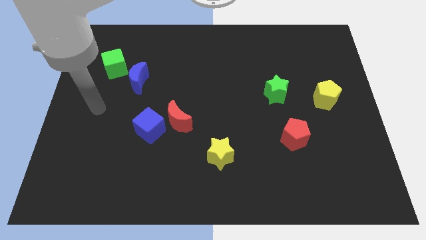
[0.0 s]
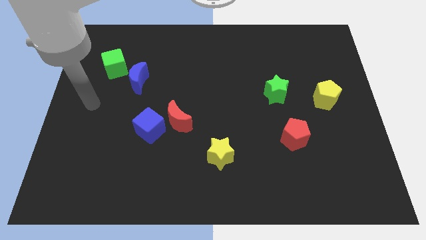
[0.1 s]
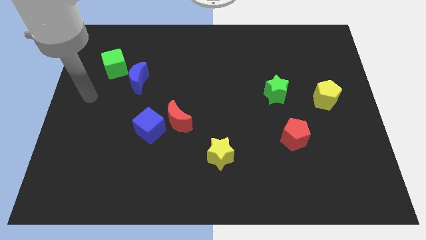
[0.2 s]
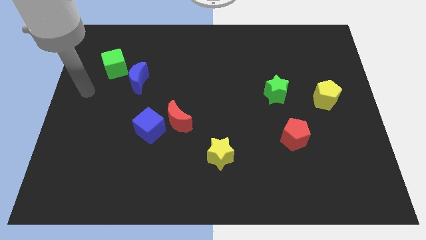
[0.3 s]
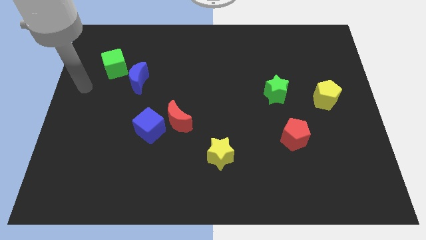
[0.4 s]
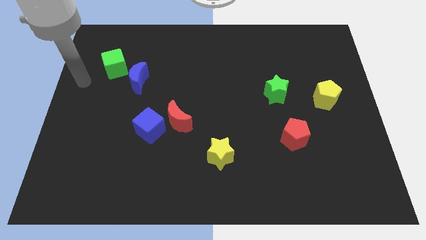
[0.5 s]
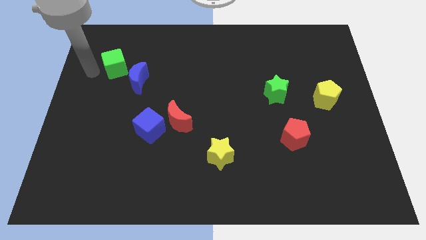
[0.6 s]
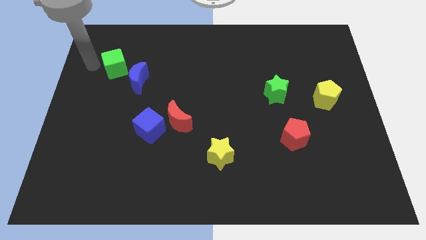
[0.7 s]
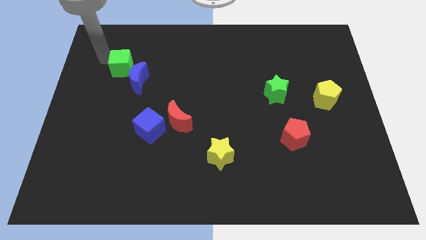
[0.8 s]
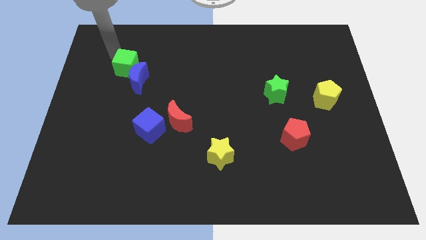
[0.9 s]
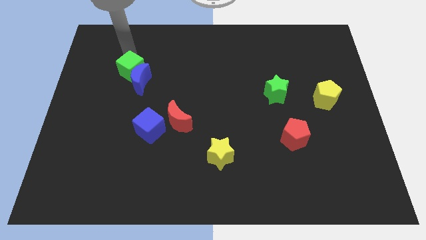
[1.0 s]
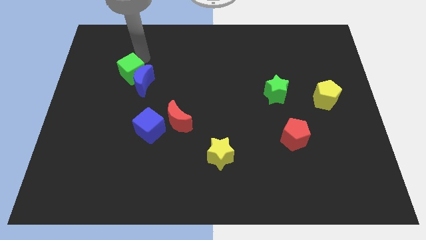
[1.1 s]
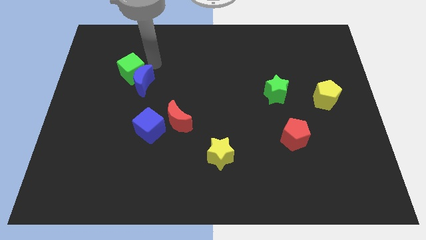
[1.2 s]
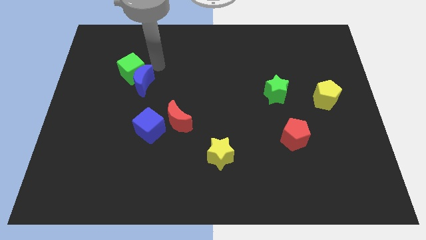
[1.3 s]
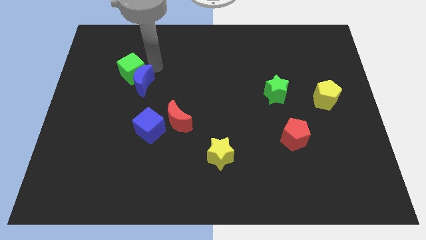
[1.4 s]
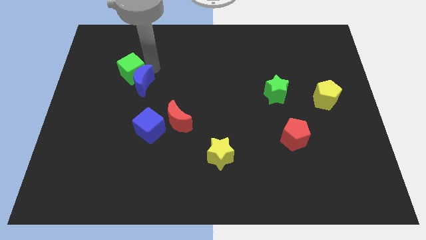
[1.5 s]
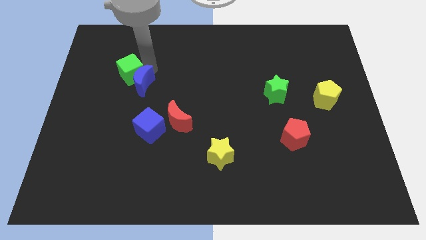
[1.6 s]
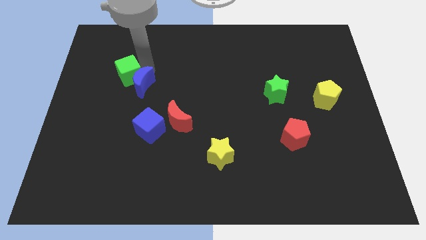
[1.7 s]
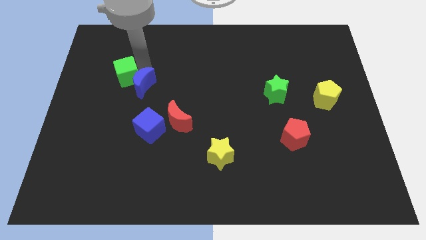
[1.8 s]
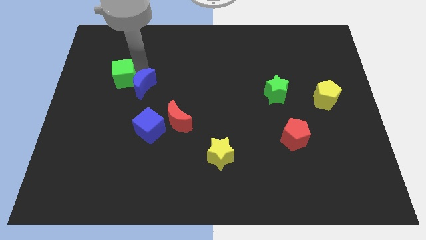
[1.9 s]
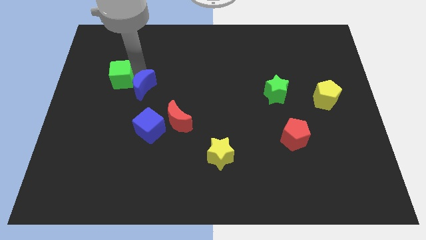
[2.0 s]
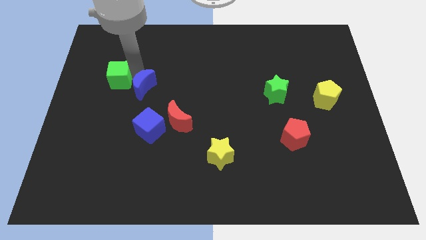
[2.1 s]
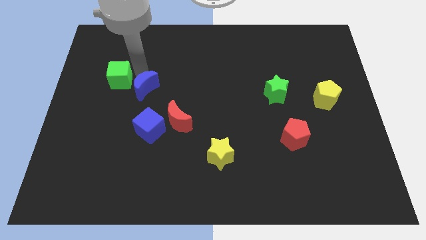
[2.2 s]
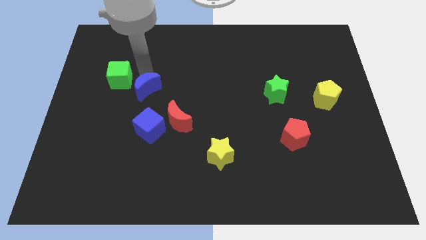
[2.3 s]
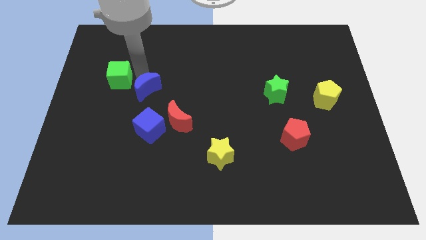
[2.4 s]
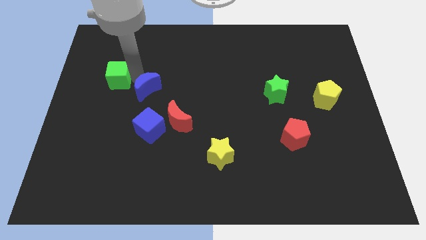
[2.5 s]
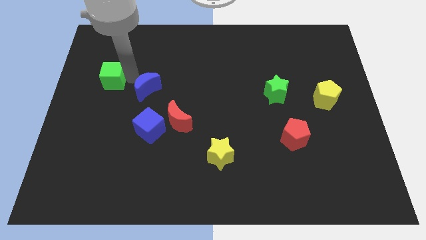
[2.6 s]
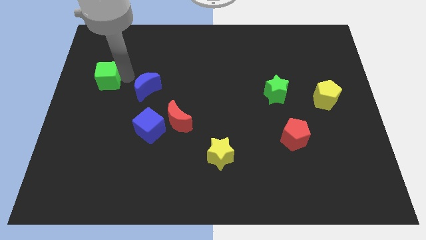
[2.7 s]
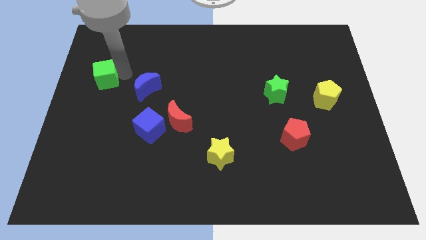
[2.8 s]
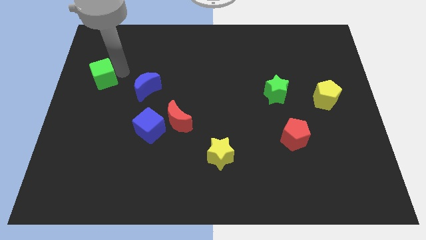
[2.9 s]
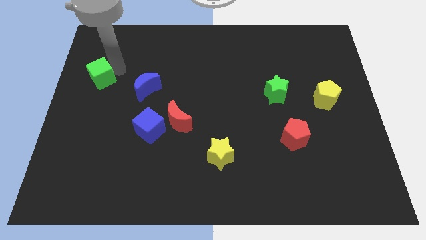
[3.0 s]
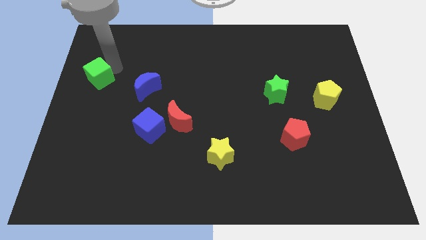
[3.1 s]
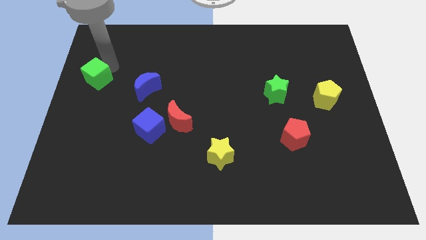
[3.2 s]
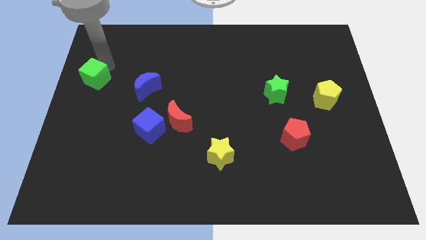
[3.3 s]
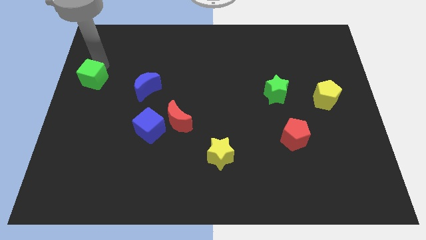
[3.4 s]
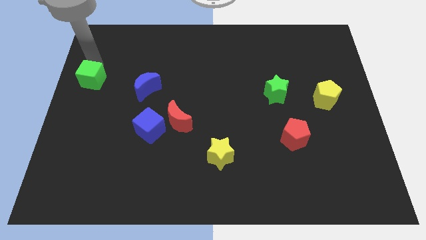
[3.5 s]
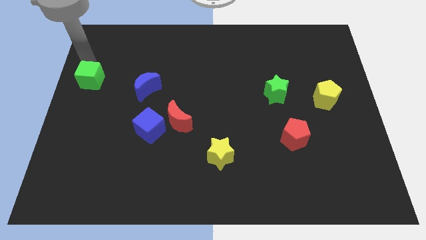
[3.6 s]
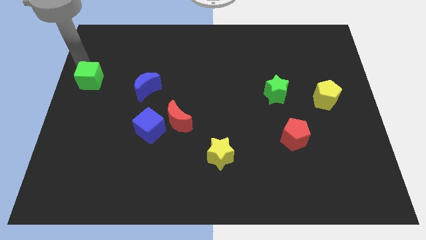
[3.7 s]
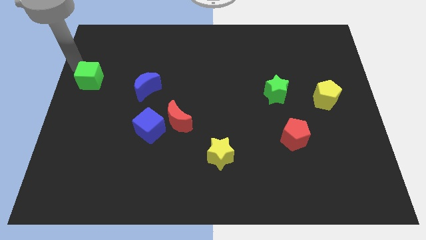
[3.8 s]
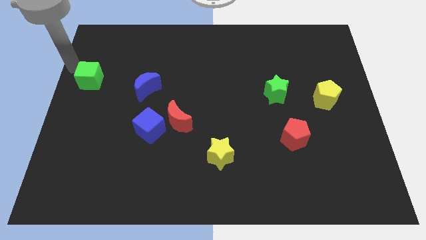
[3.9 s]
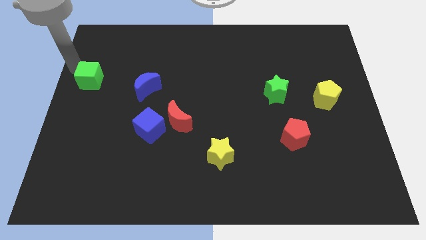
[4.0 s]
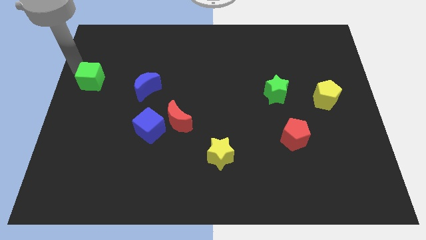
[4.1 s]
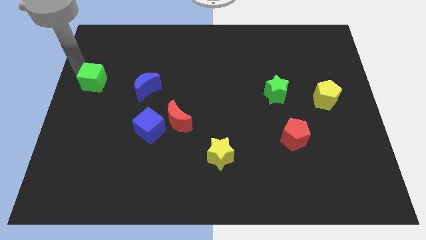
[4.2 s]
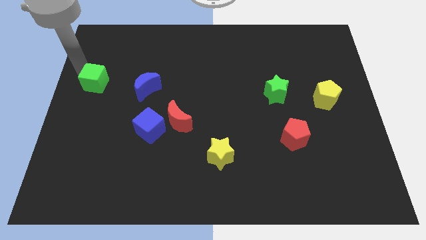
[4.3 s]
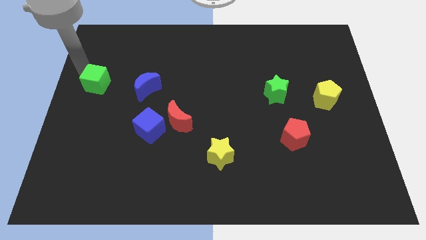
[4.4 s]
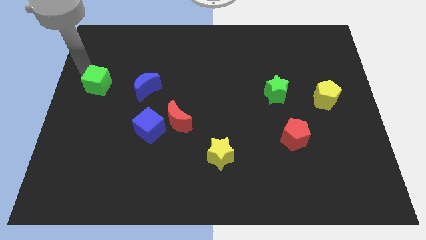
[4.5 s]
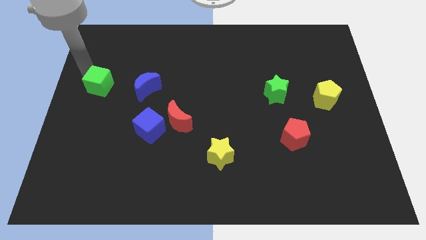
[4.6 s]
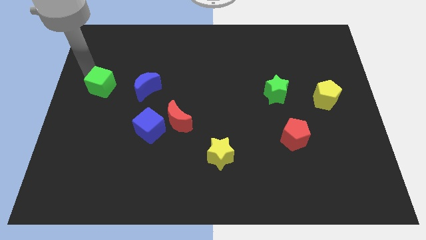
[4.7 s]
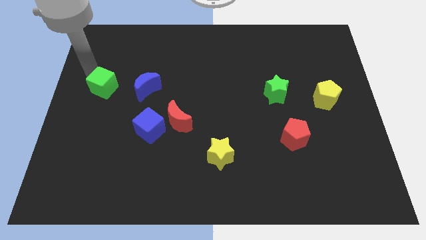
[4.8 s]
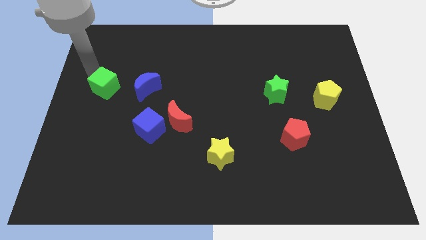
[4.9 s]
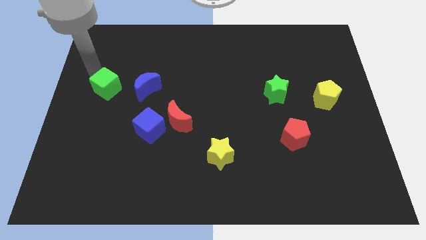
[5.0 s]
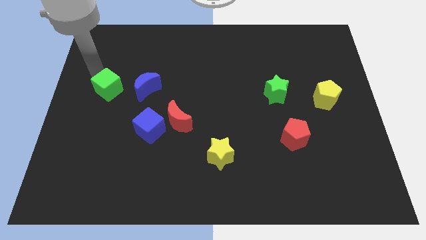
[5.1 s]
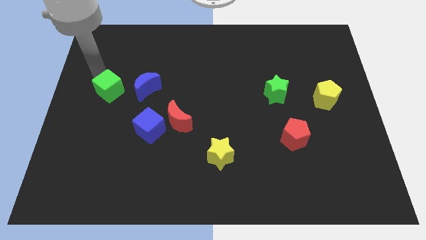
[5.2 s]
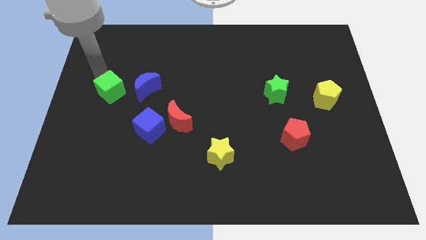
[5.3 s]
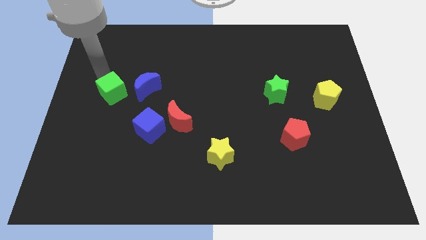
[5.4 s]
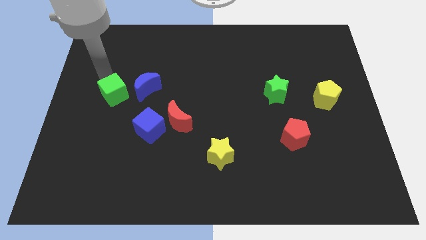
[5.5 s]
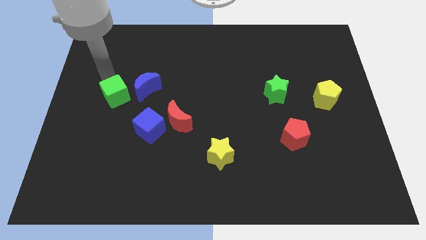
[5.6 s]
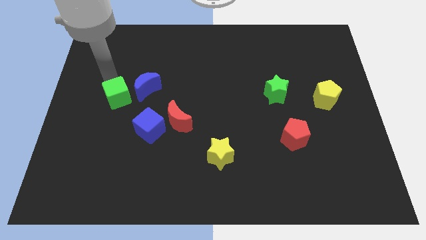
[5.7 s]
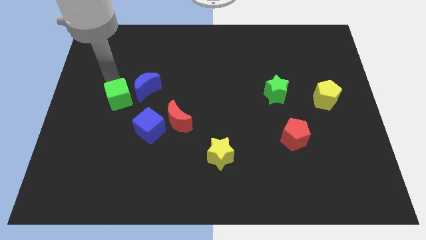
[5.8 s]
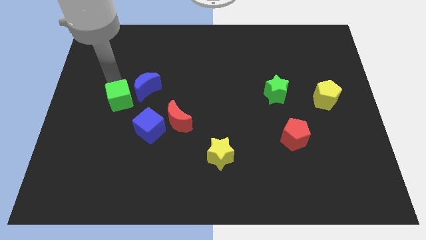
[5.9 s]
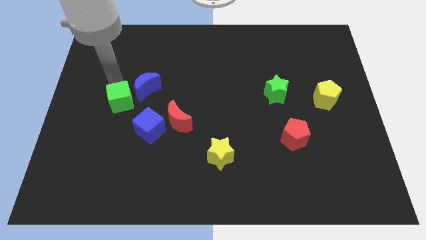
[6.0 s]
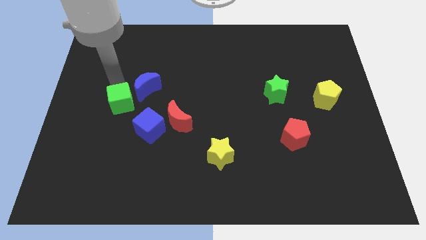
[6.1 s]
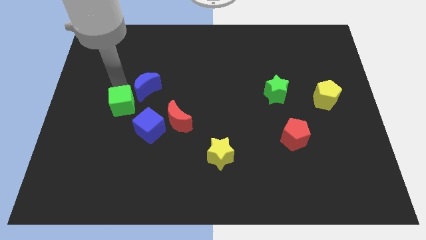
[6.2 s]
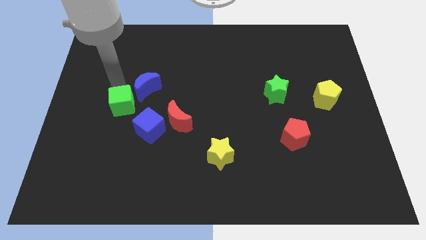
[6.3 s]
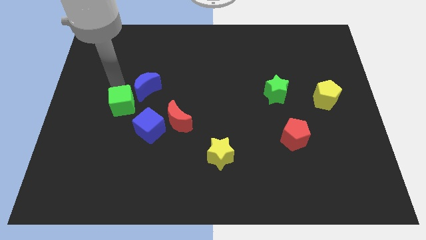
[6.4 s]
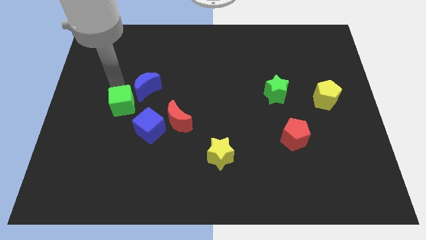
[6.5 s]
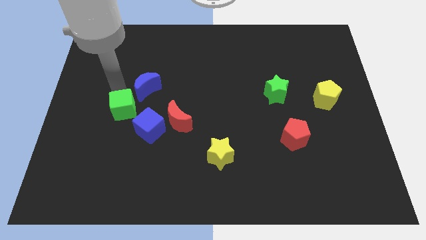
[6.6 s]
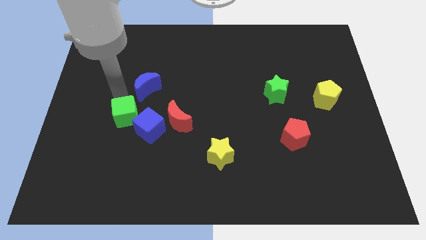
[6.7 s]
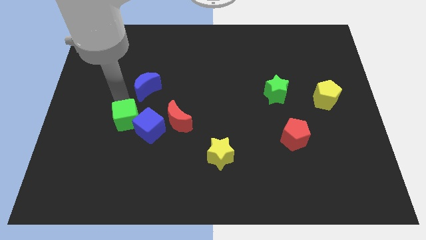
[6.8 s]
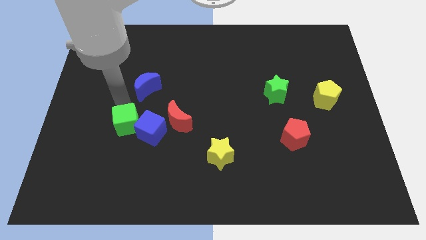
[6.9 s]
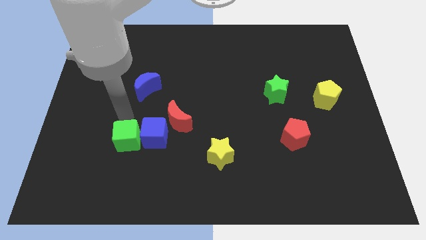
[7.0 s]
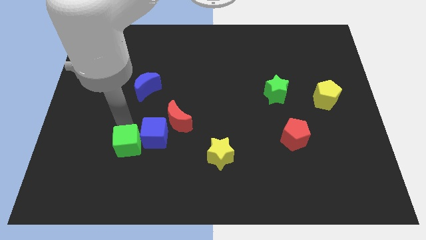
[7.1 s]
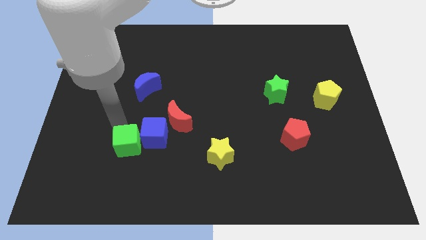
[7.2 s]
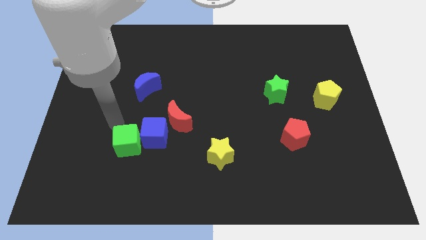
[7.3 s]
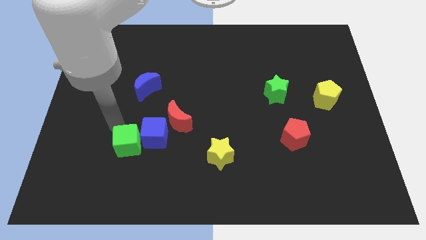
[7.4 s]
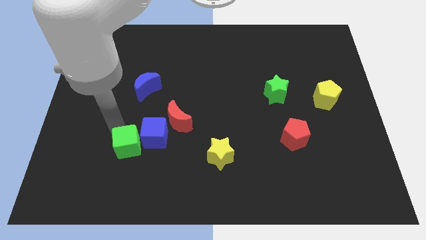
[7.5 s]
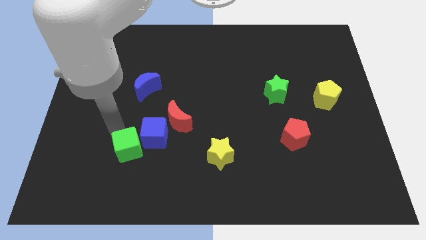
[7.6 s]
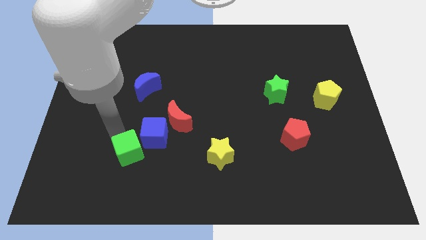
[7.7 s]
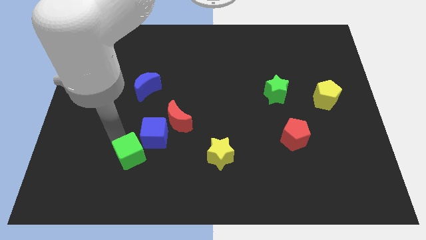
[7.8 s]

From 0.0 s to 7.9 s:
put the green cube to the bottom side of the blue cube
